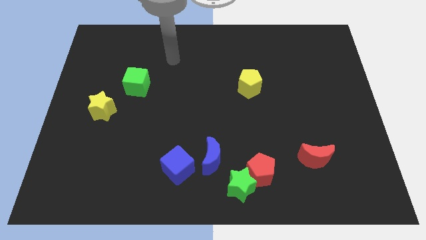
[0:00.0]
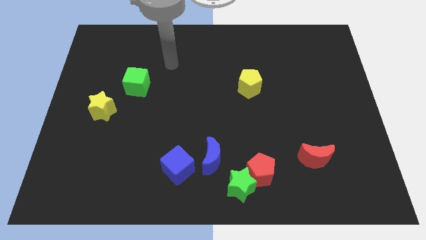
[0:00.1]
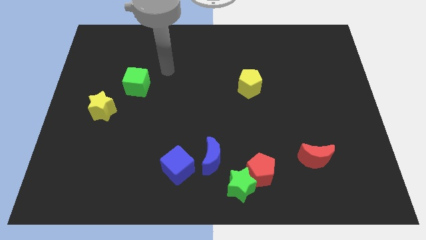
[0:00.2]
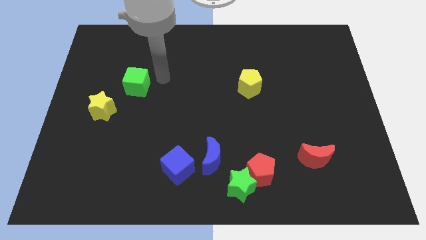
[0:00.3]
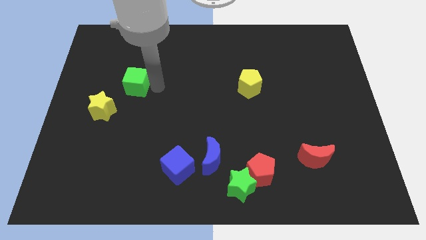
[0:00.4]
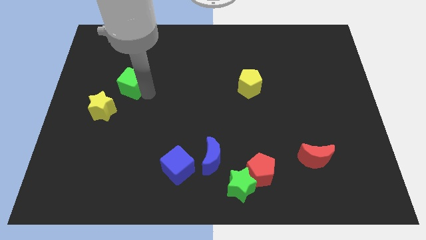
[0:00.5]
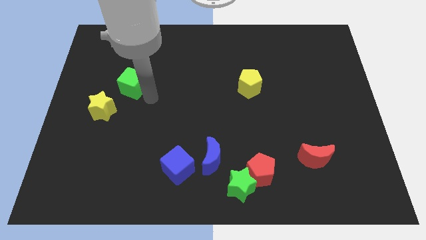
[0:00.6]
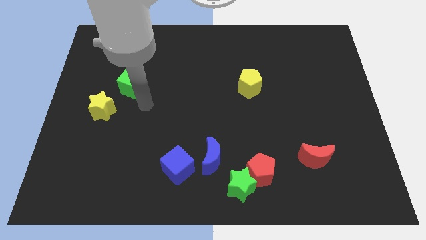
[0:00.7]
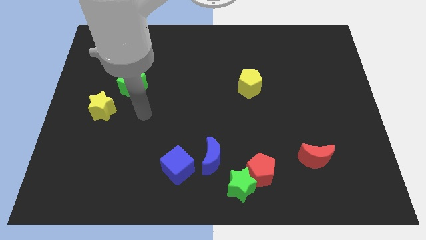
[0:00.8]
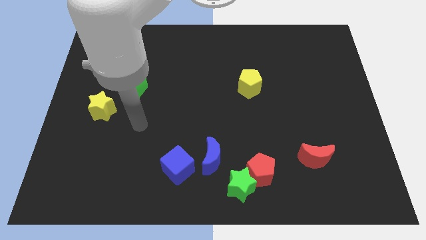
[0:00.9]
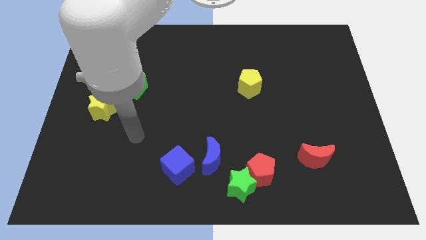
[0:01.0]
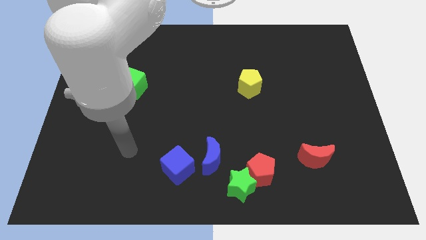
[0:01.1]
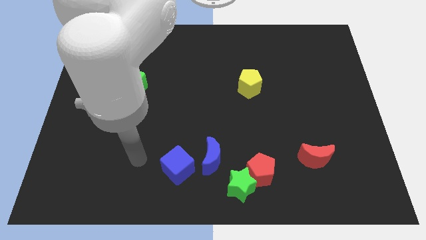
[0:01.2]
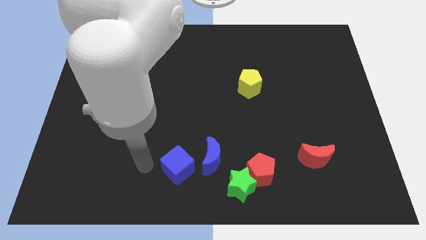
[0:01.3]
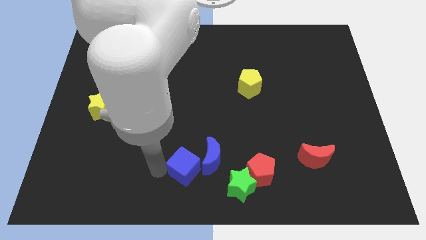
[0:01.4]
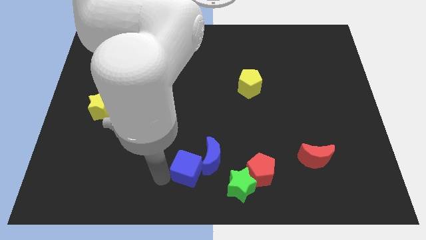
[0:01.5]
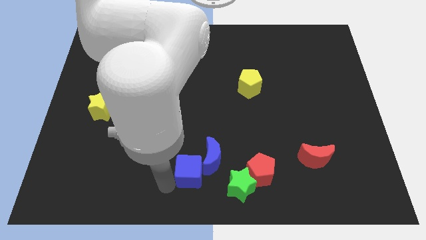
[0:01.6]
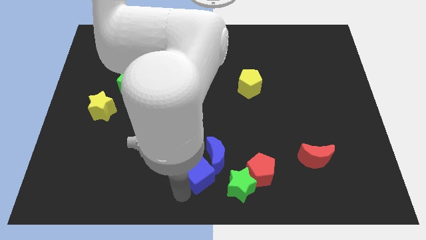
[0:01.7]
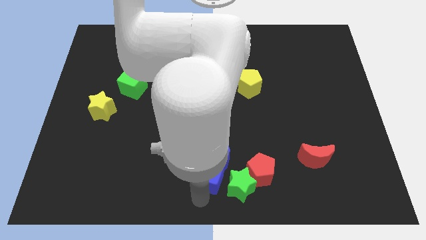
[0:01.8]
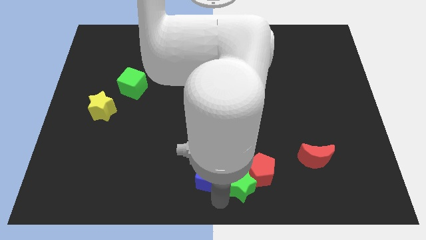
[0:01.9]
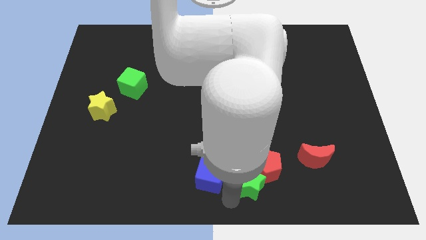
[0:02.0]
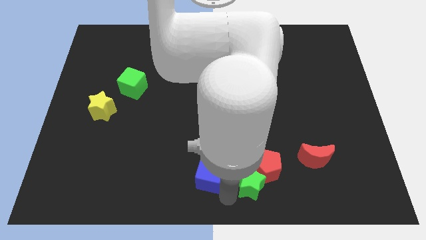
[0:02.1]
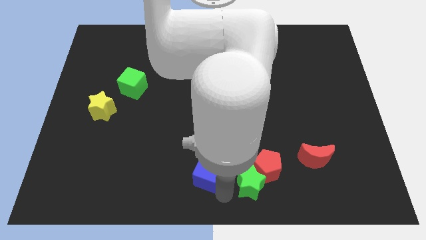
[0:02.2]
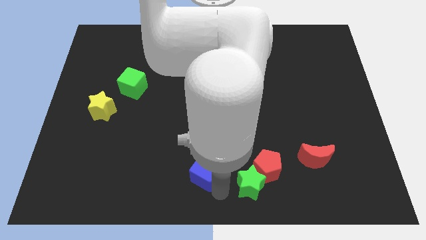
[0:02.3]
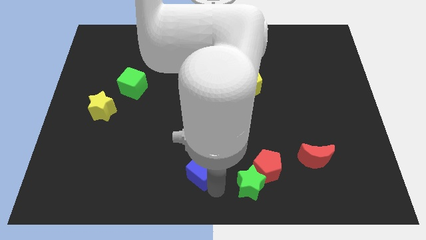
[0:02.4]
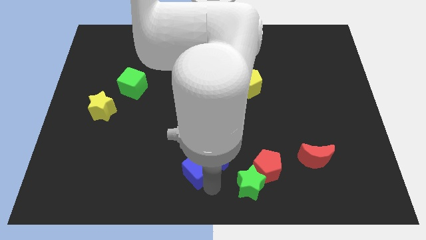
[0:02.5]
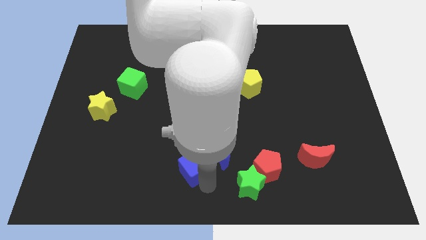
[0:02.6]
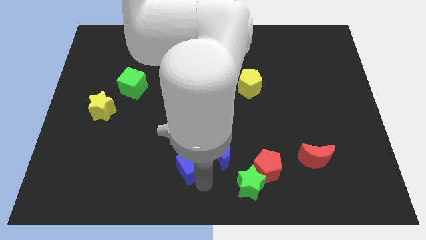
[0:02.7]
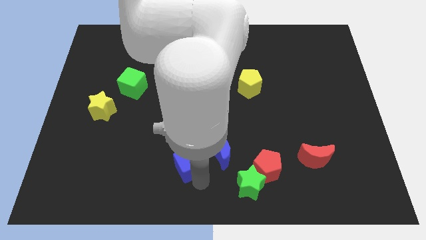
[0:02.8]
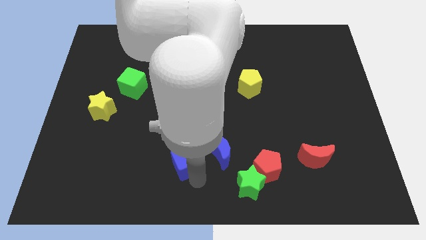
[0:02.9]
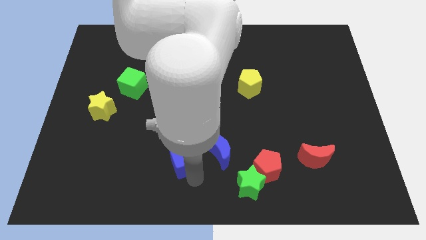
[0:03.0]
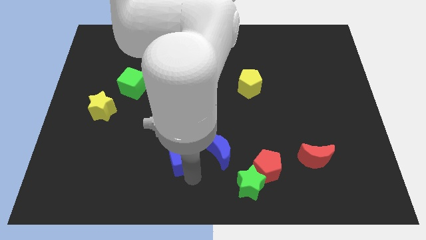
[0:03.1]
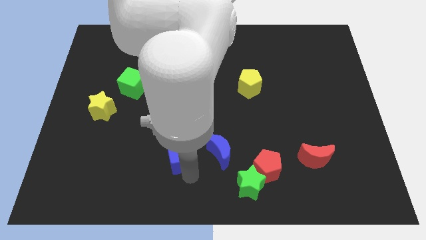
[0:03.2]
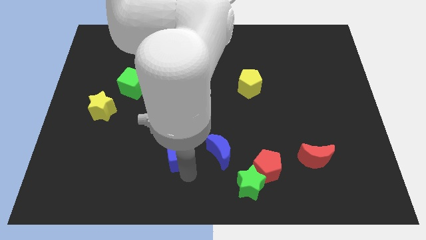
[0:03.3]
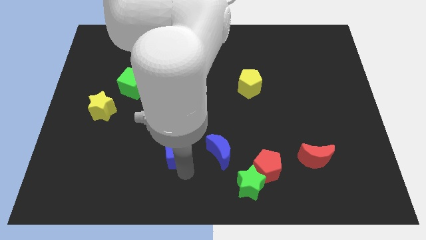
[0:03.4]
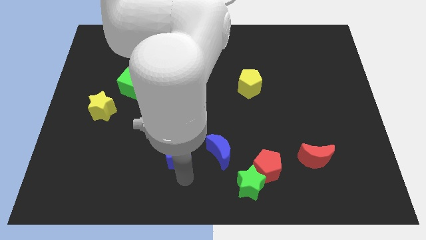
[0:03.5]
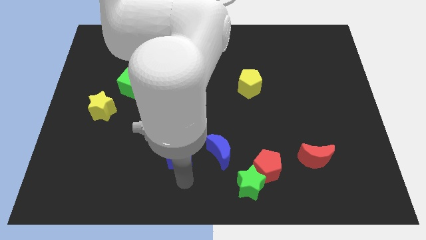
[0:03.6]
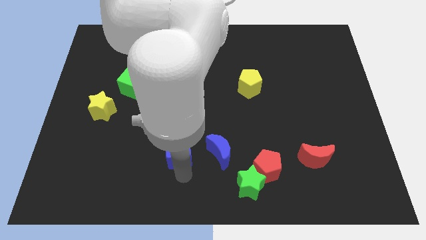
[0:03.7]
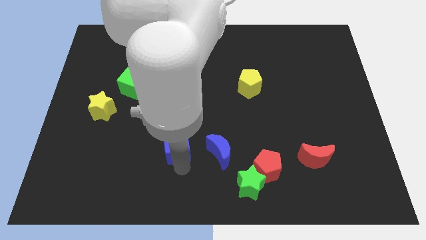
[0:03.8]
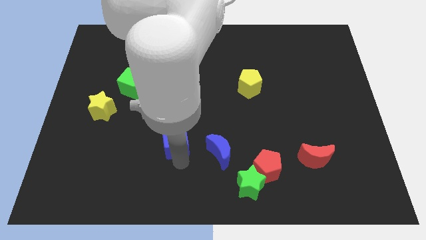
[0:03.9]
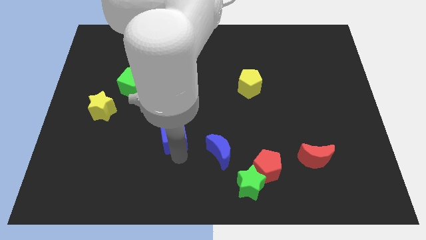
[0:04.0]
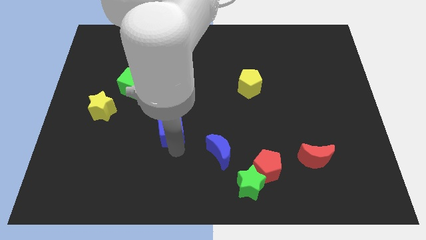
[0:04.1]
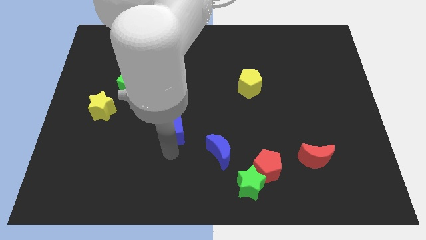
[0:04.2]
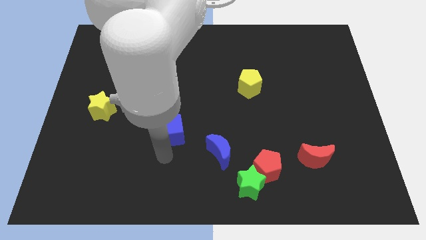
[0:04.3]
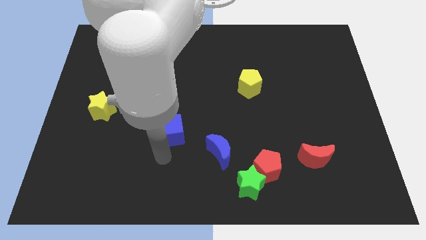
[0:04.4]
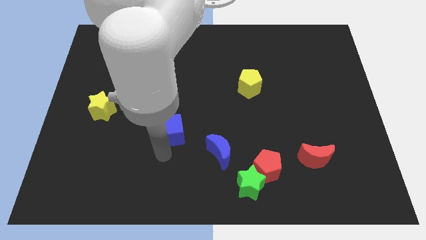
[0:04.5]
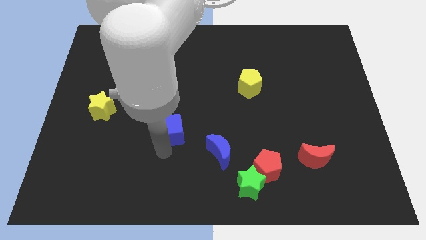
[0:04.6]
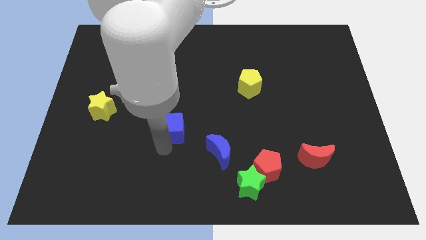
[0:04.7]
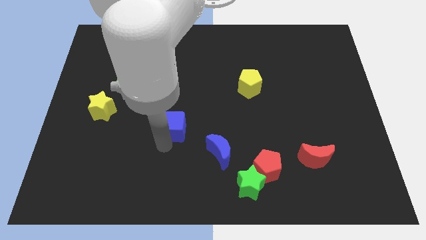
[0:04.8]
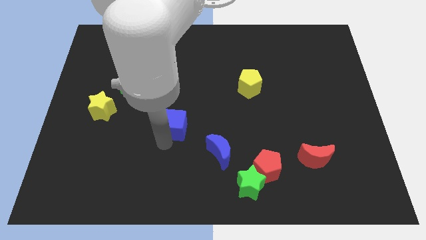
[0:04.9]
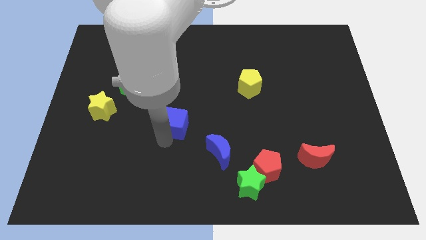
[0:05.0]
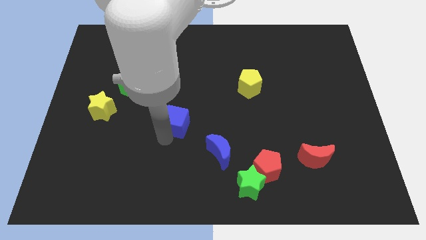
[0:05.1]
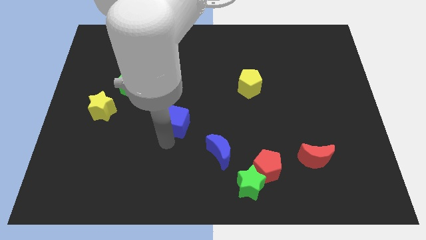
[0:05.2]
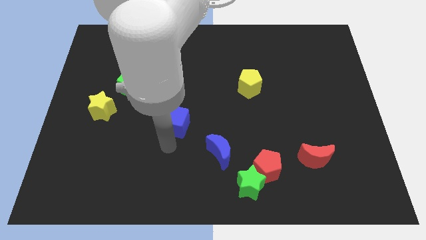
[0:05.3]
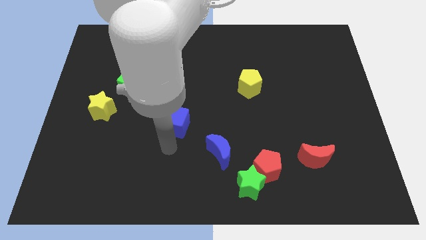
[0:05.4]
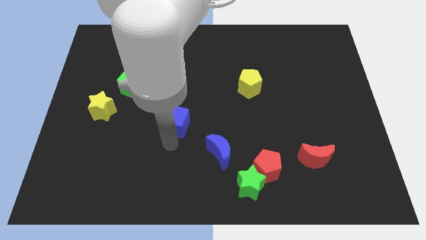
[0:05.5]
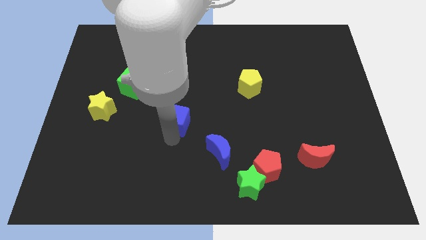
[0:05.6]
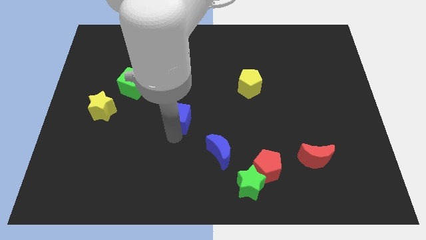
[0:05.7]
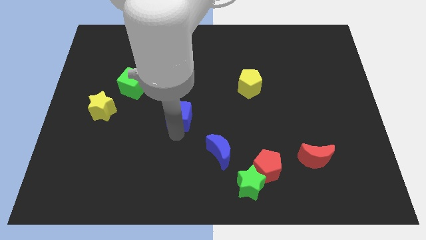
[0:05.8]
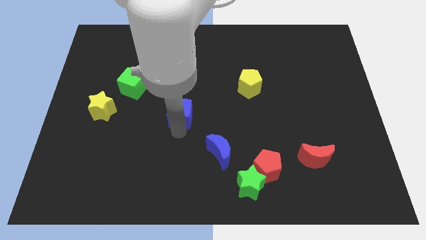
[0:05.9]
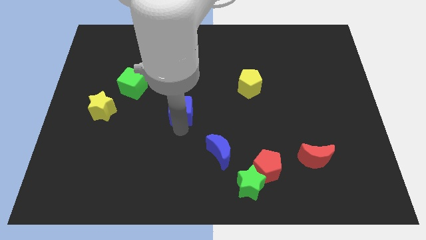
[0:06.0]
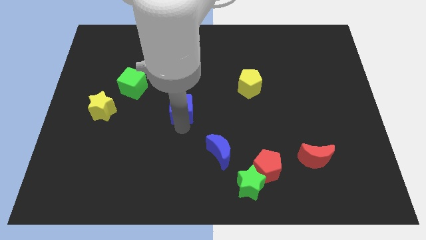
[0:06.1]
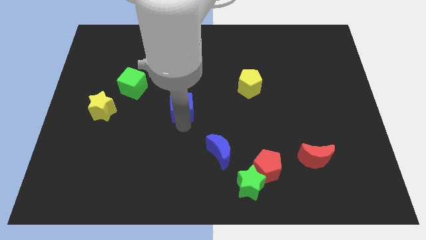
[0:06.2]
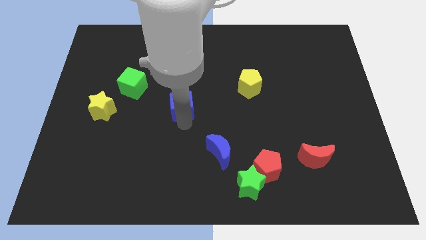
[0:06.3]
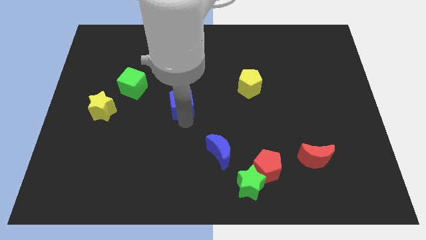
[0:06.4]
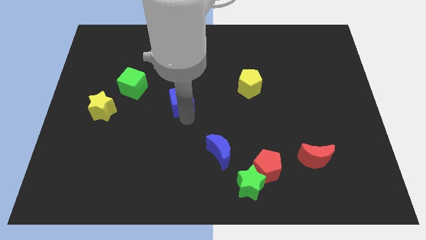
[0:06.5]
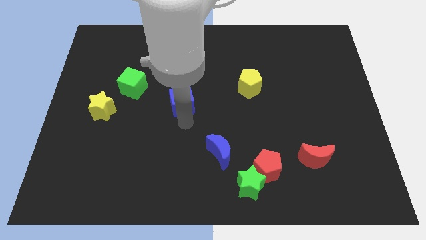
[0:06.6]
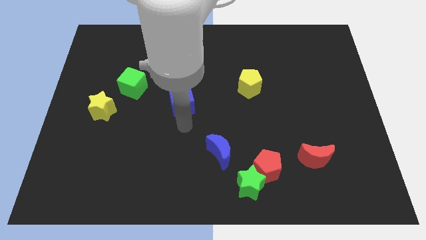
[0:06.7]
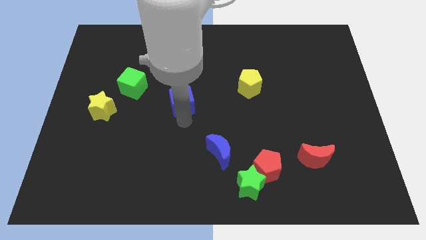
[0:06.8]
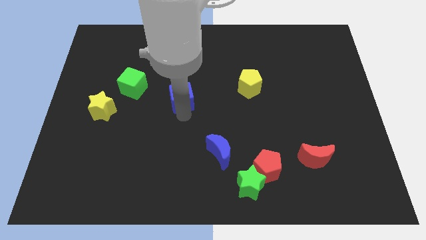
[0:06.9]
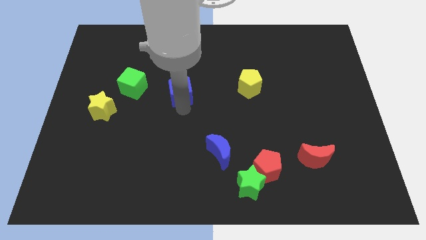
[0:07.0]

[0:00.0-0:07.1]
push the blue cube up

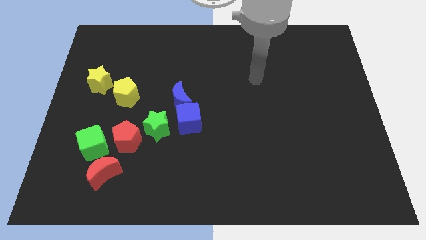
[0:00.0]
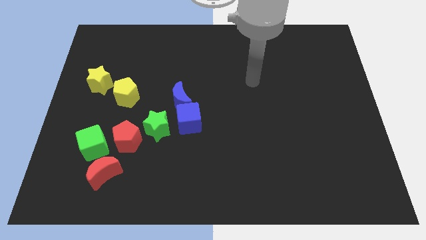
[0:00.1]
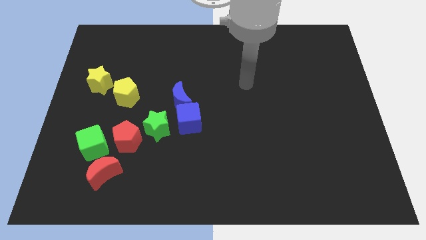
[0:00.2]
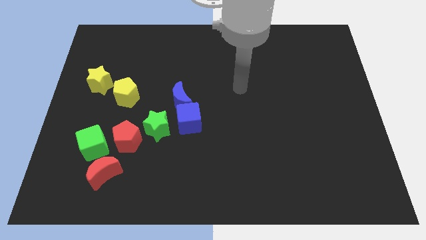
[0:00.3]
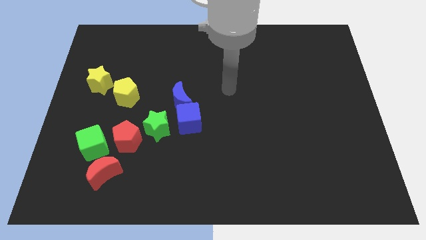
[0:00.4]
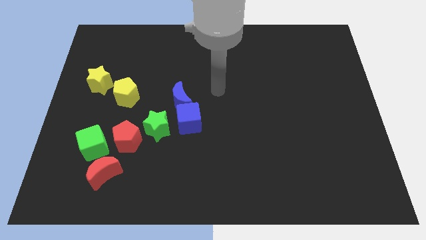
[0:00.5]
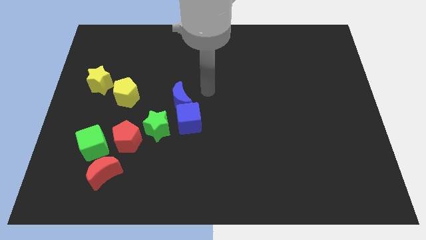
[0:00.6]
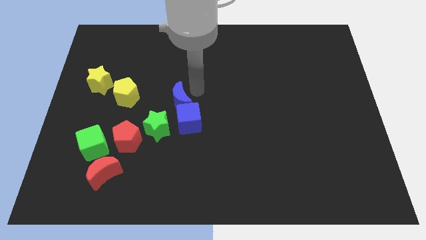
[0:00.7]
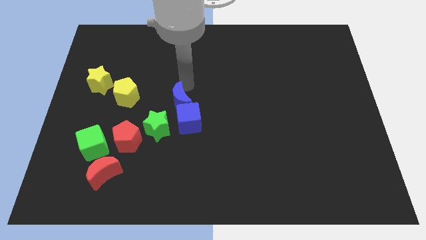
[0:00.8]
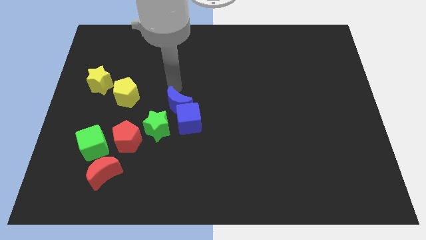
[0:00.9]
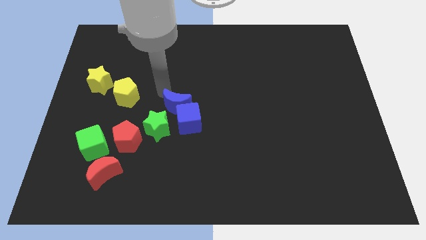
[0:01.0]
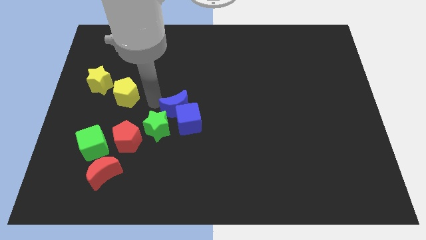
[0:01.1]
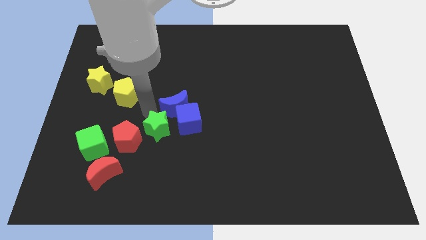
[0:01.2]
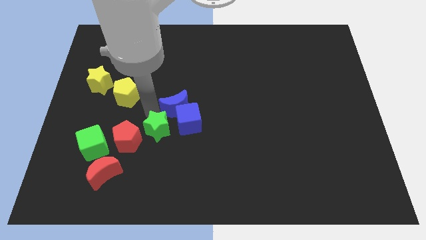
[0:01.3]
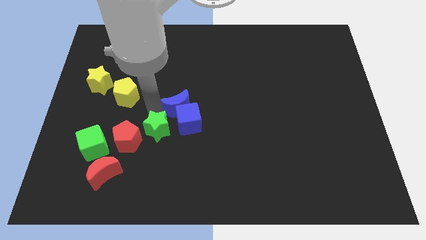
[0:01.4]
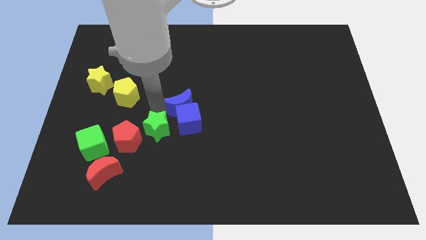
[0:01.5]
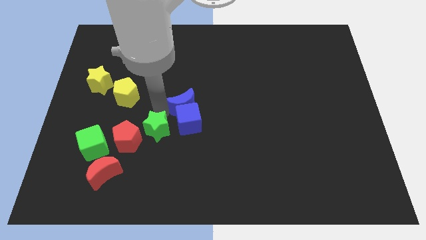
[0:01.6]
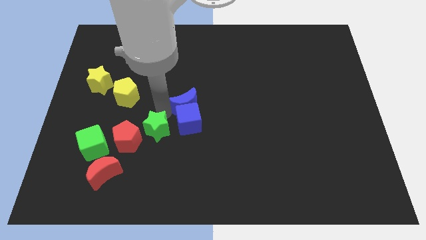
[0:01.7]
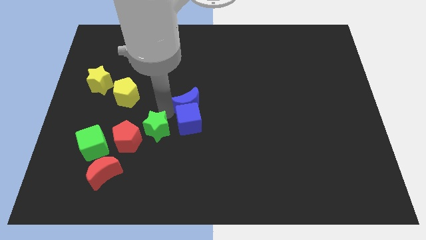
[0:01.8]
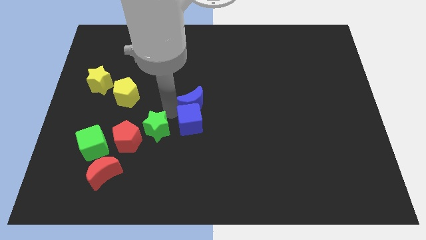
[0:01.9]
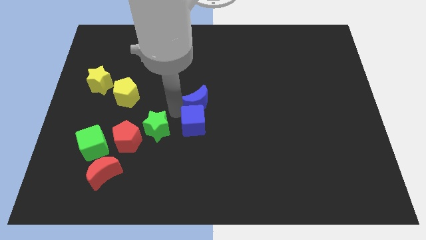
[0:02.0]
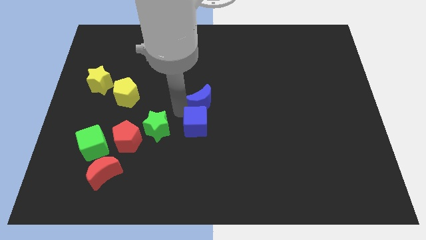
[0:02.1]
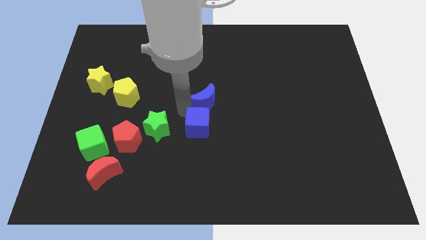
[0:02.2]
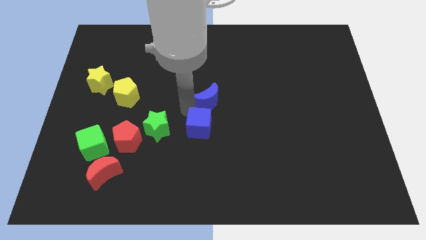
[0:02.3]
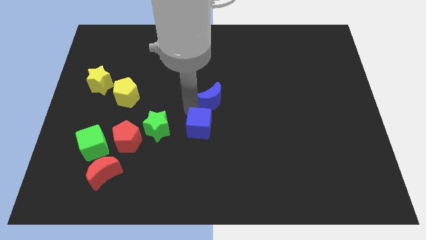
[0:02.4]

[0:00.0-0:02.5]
push the blue moon slightly right
